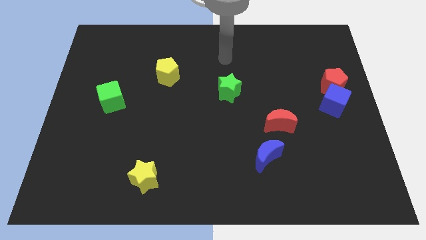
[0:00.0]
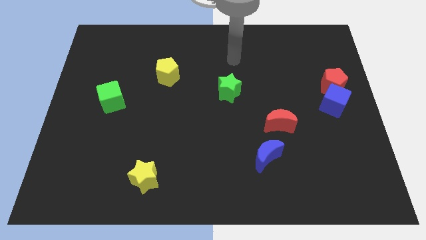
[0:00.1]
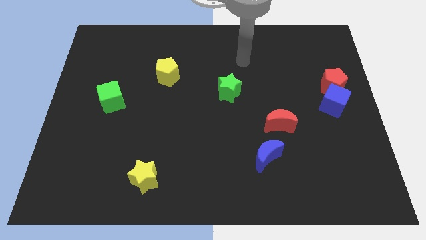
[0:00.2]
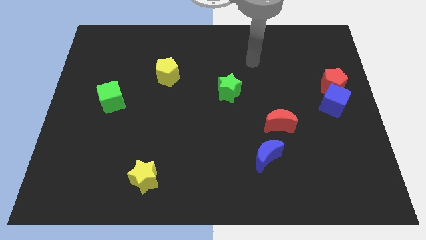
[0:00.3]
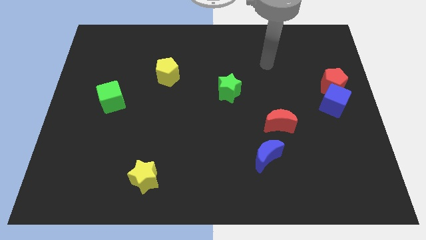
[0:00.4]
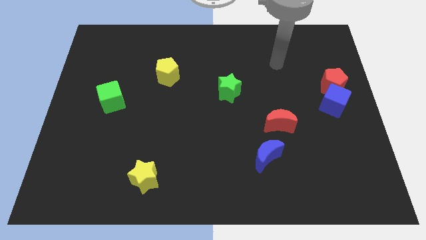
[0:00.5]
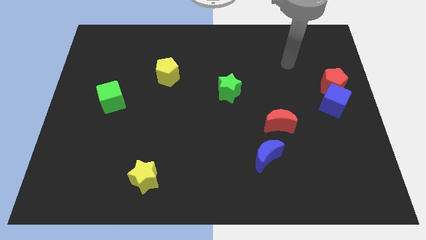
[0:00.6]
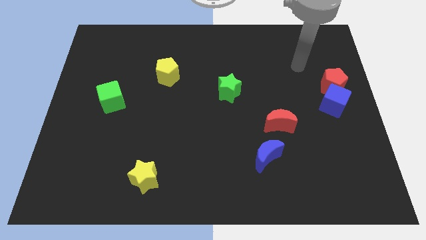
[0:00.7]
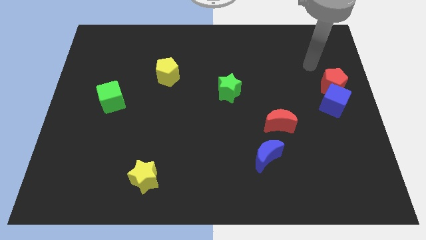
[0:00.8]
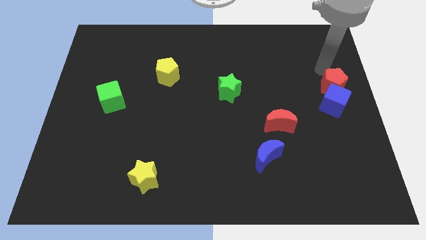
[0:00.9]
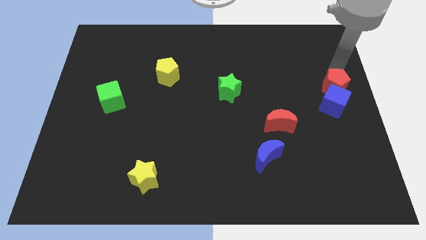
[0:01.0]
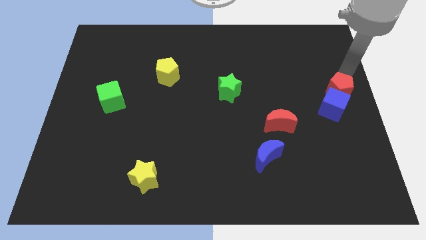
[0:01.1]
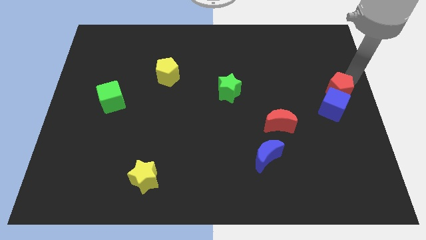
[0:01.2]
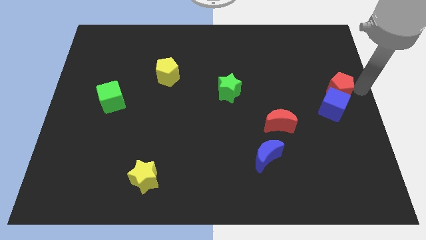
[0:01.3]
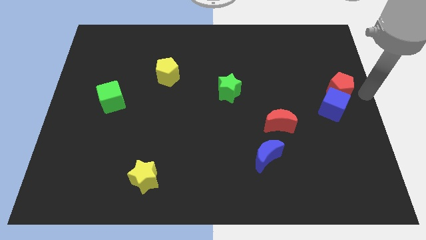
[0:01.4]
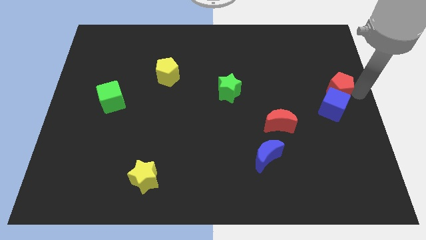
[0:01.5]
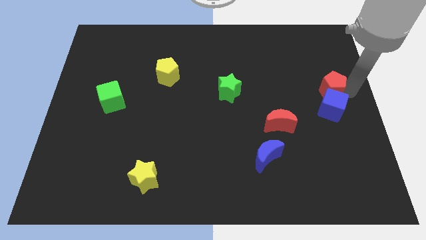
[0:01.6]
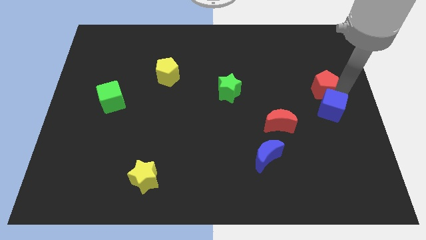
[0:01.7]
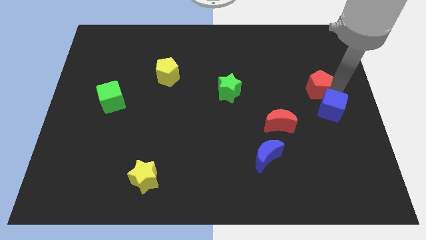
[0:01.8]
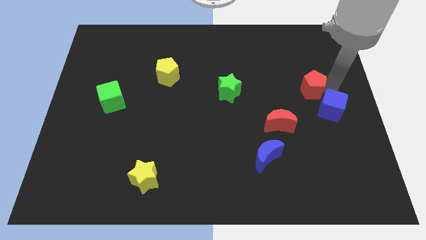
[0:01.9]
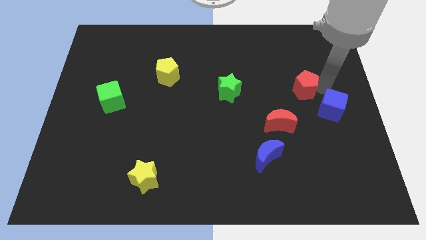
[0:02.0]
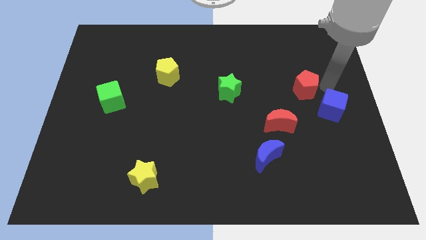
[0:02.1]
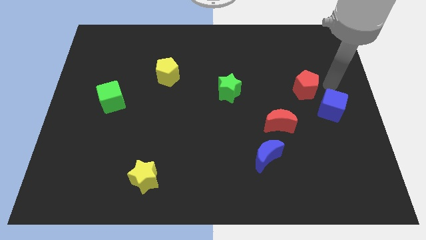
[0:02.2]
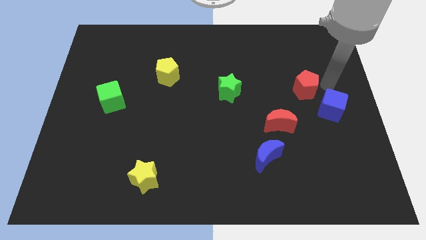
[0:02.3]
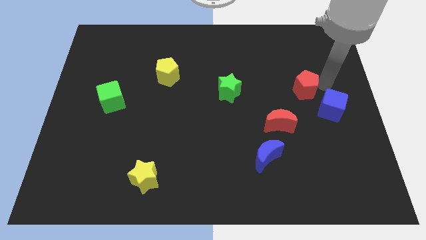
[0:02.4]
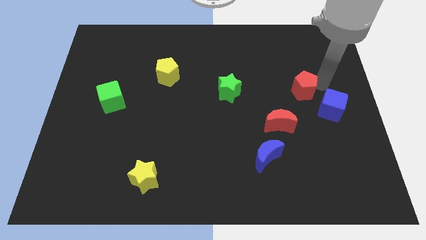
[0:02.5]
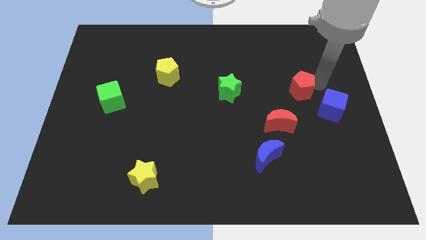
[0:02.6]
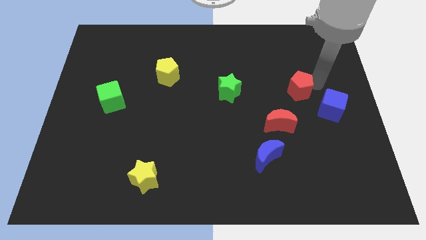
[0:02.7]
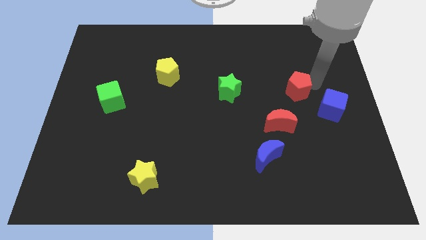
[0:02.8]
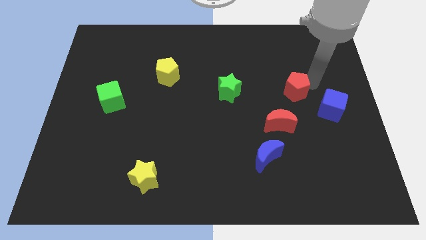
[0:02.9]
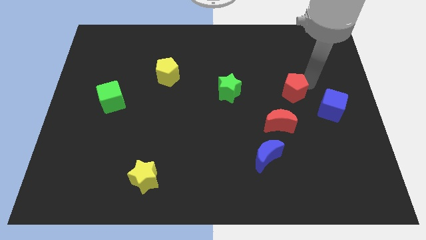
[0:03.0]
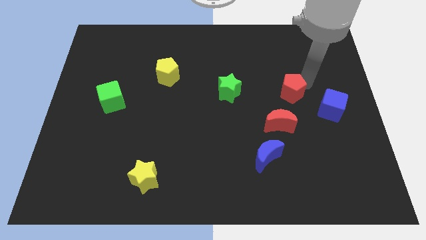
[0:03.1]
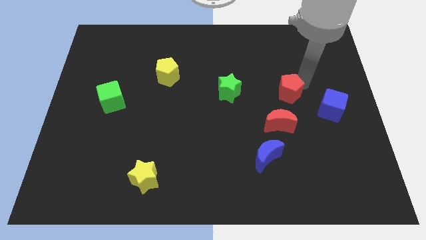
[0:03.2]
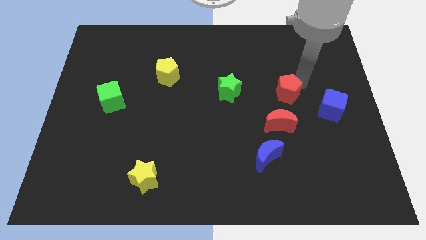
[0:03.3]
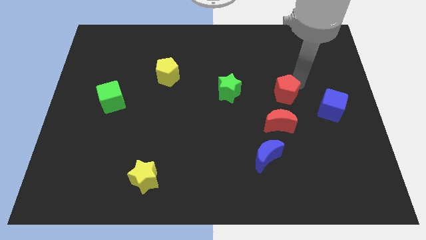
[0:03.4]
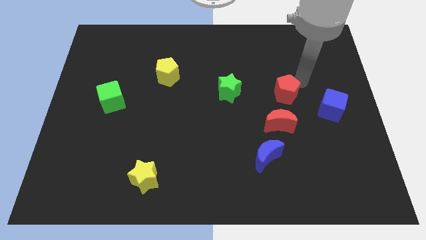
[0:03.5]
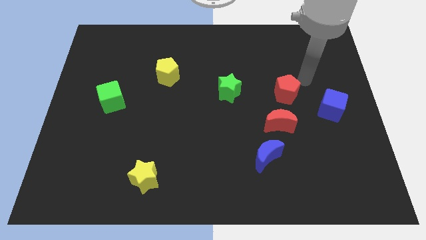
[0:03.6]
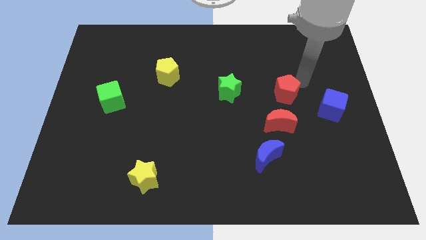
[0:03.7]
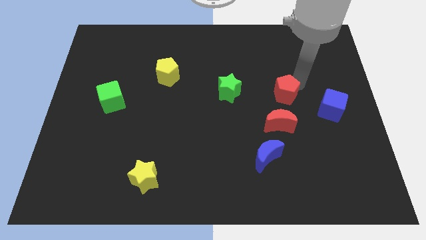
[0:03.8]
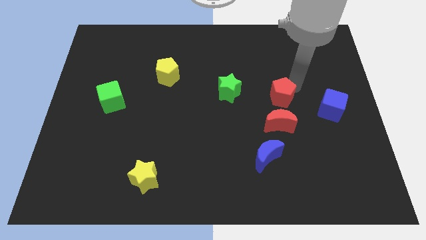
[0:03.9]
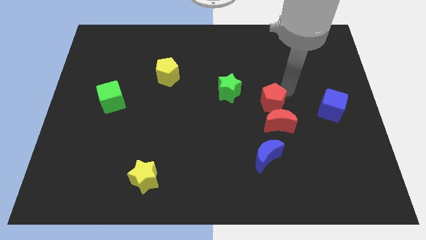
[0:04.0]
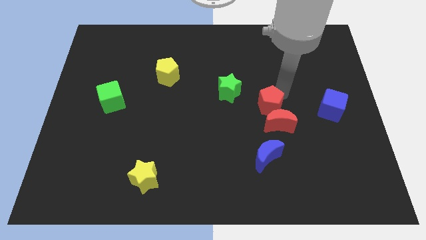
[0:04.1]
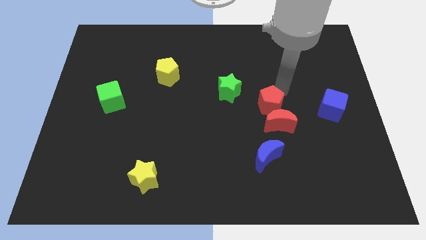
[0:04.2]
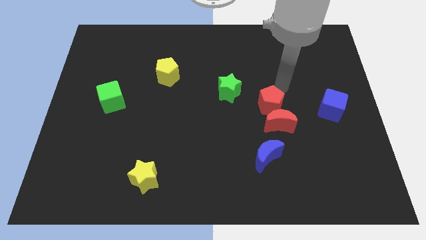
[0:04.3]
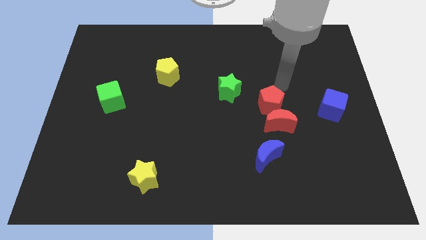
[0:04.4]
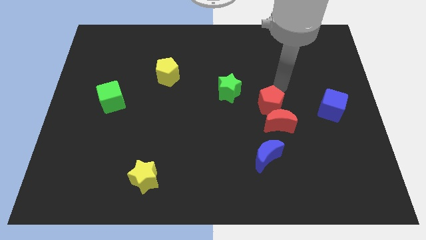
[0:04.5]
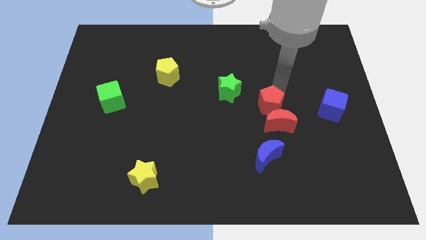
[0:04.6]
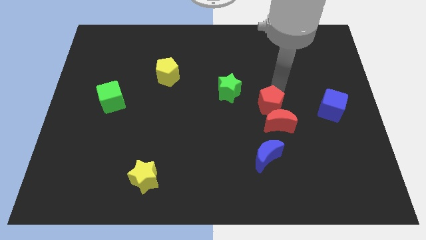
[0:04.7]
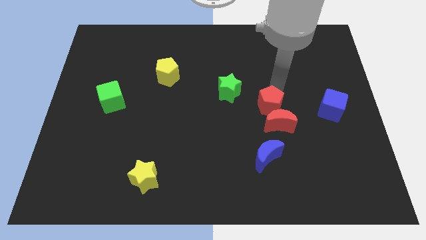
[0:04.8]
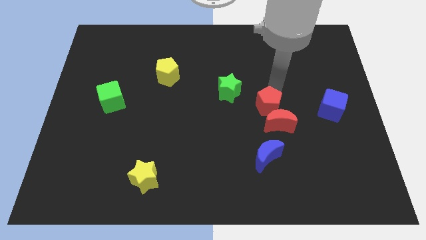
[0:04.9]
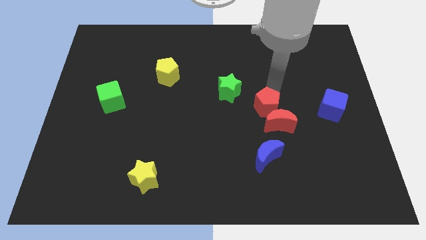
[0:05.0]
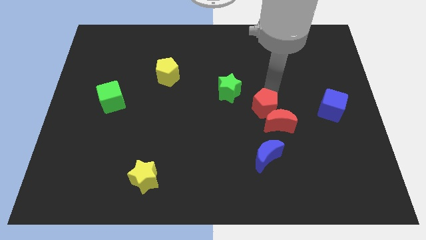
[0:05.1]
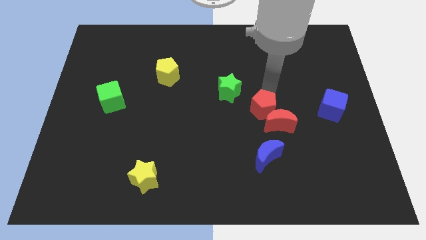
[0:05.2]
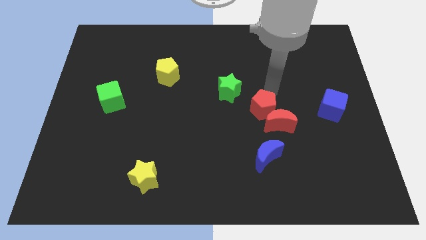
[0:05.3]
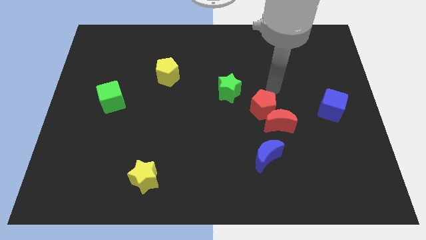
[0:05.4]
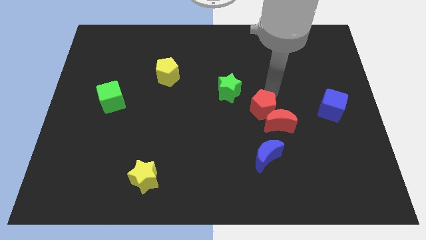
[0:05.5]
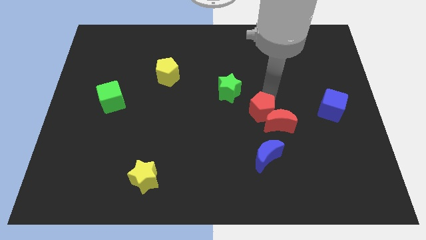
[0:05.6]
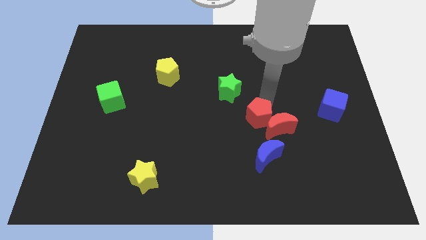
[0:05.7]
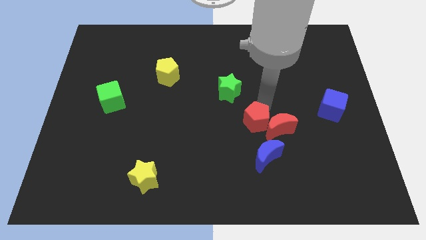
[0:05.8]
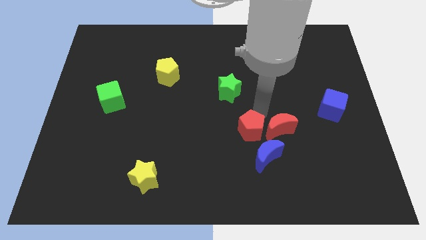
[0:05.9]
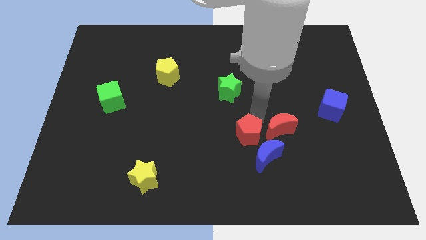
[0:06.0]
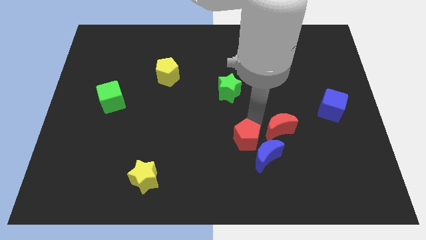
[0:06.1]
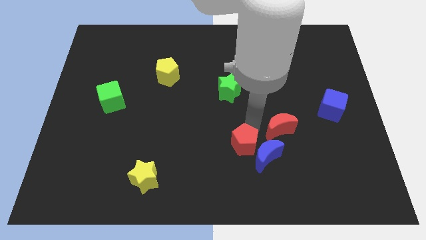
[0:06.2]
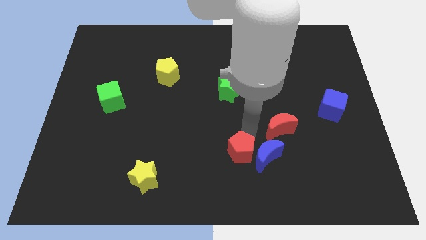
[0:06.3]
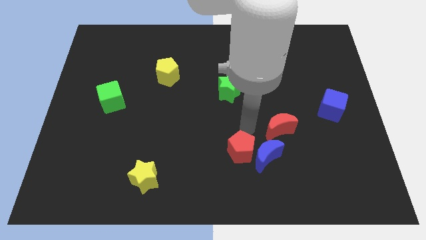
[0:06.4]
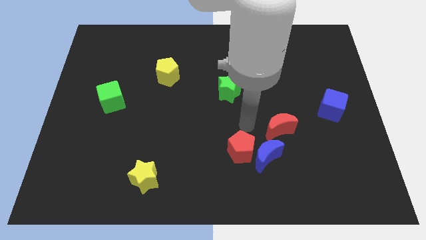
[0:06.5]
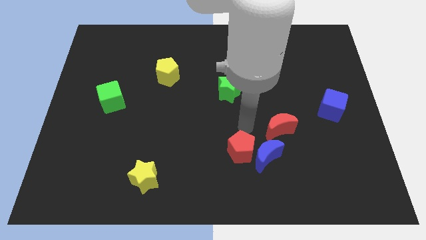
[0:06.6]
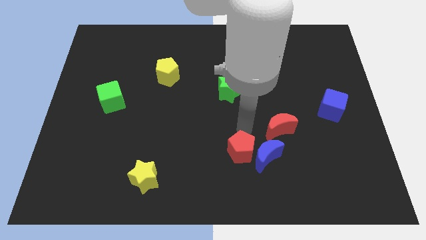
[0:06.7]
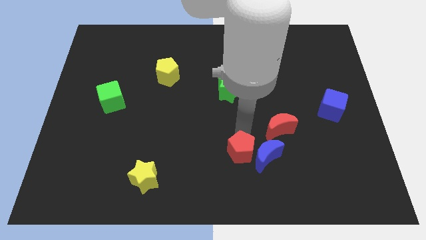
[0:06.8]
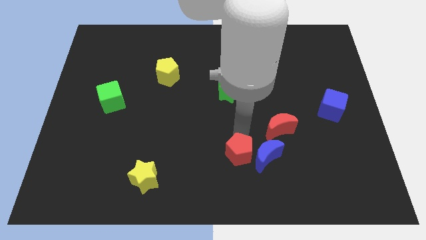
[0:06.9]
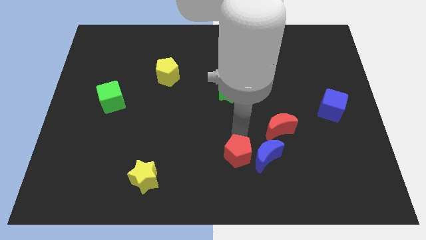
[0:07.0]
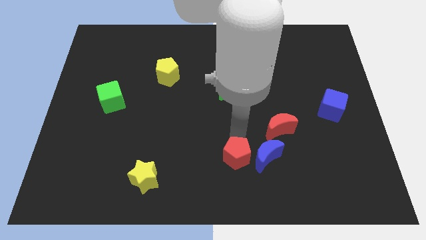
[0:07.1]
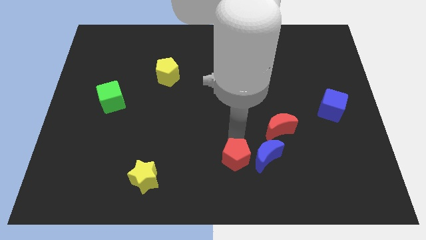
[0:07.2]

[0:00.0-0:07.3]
move the red pentagon to the bottom
